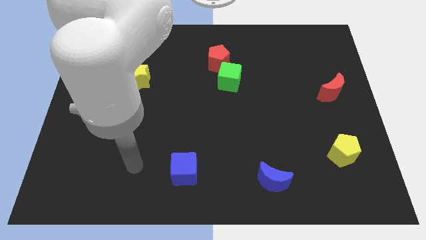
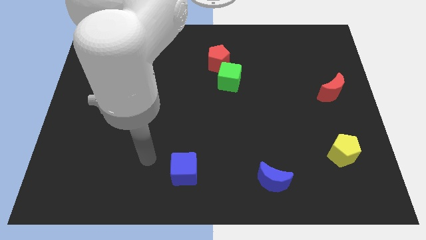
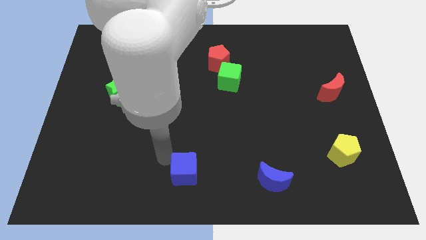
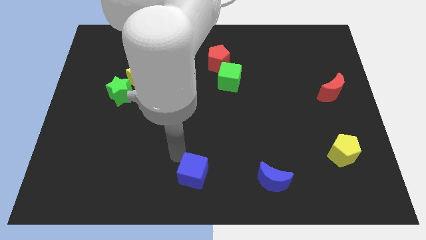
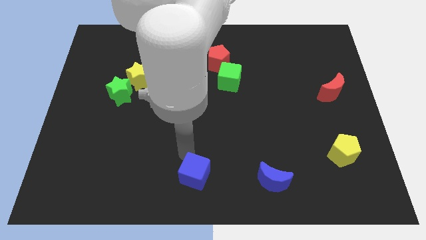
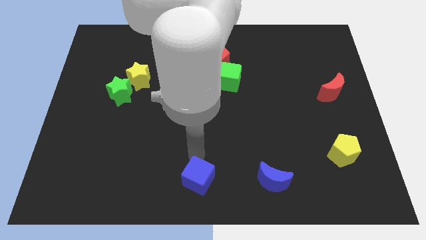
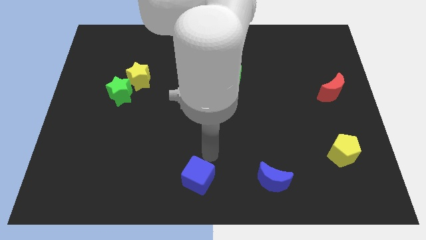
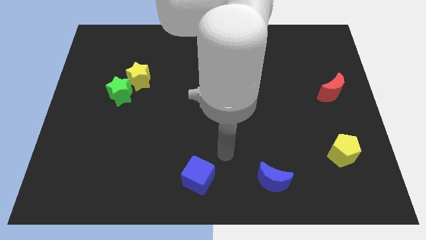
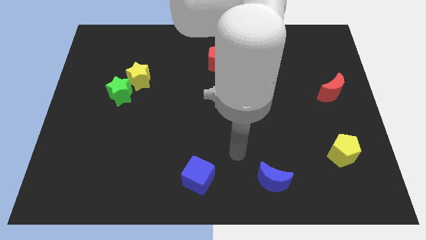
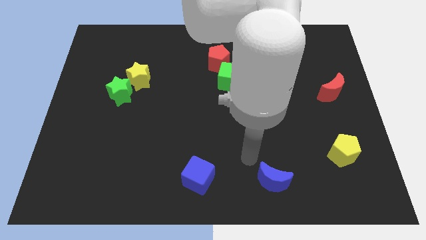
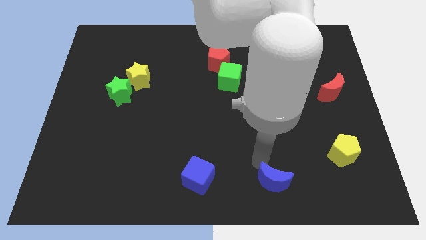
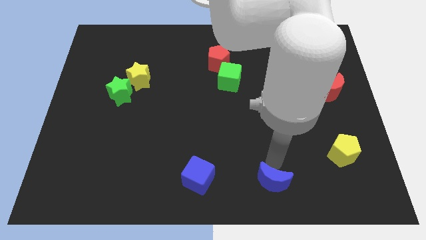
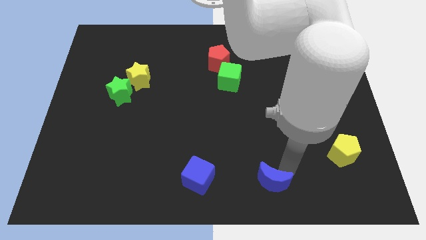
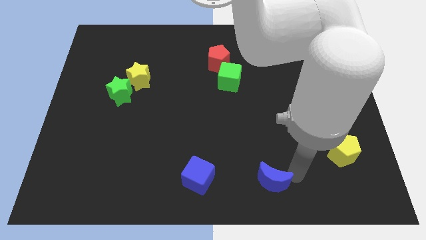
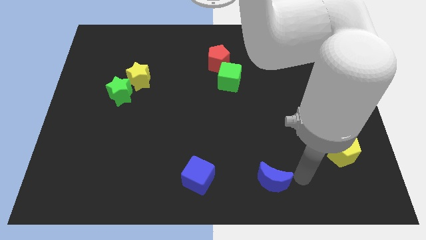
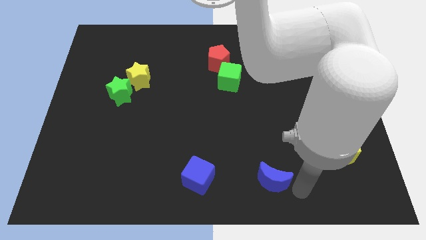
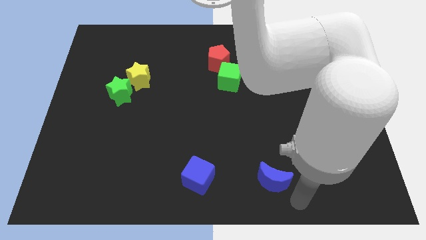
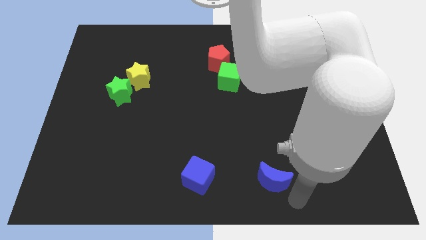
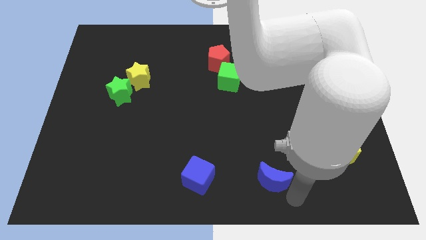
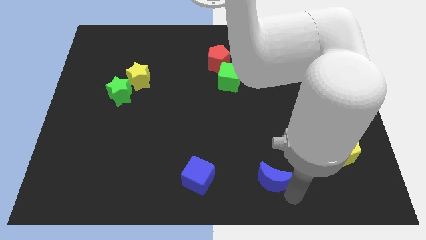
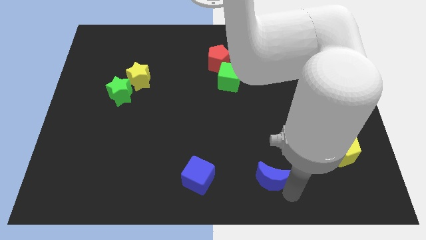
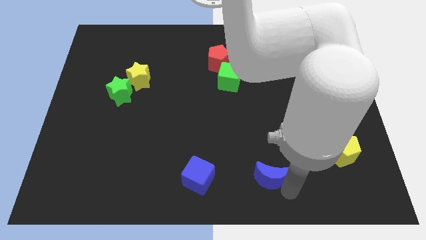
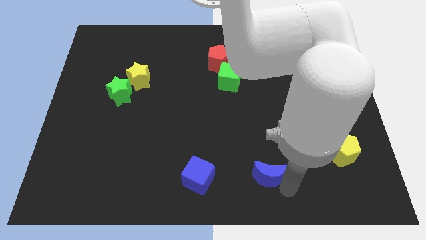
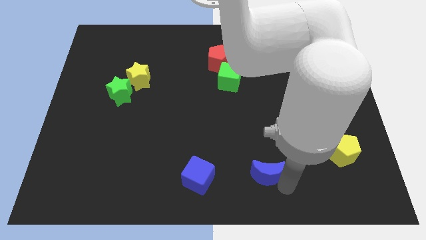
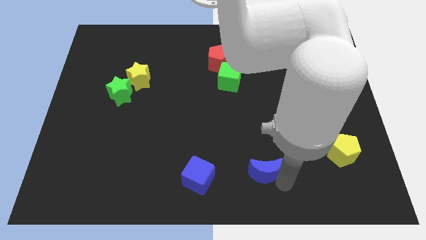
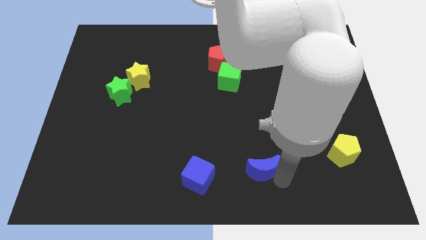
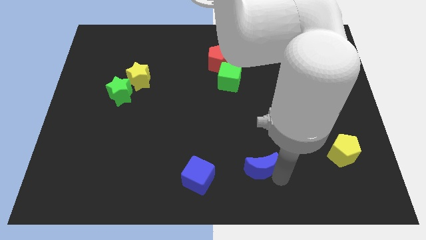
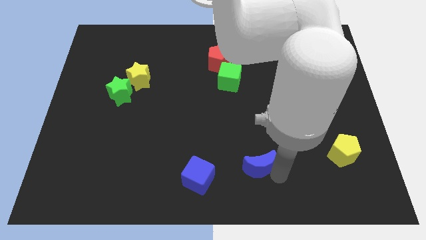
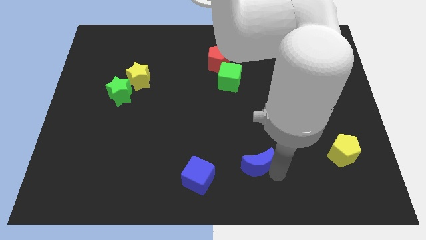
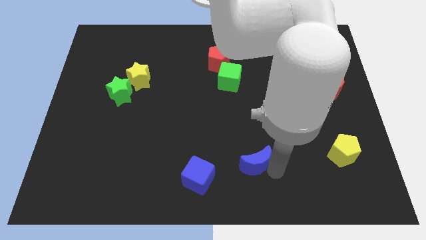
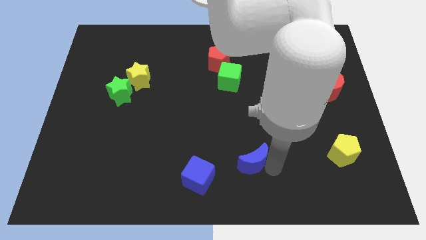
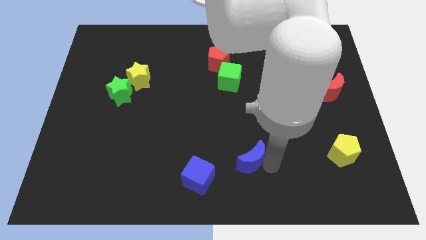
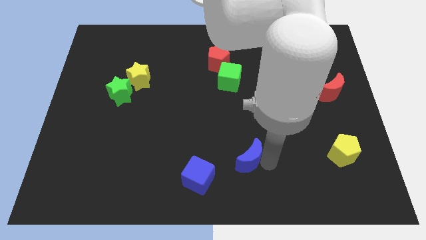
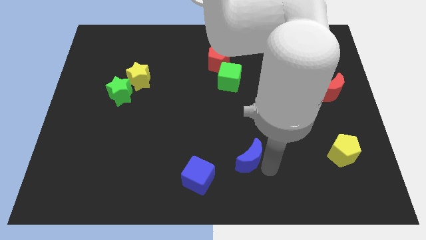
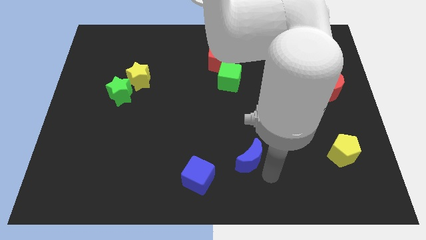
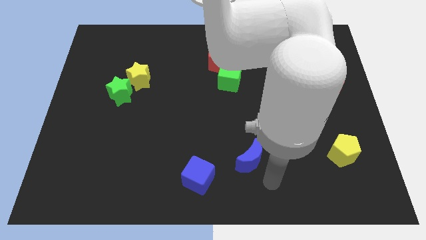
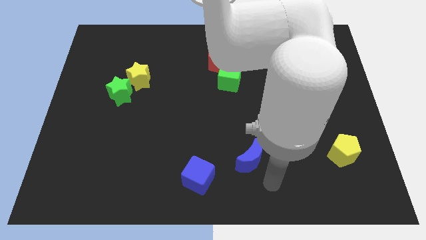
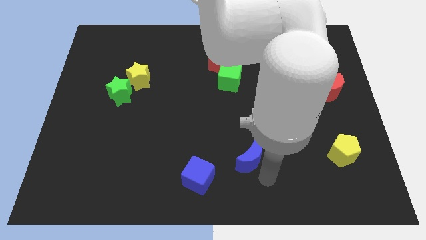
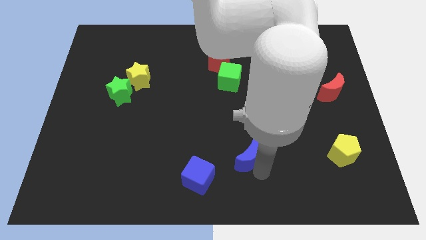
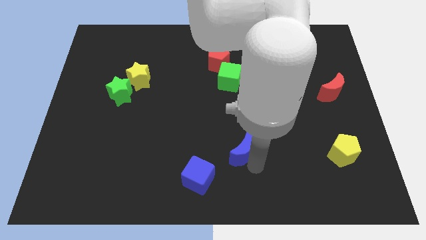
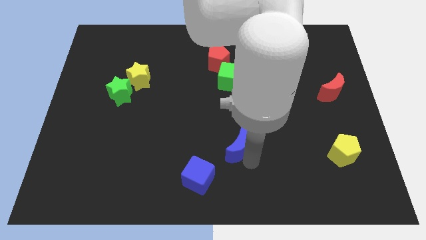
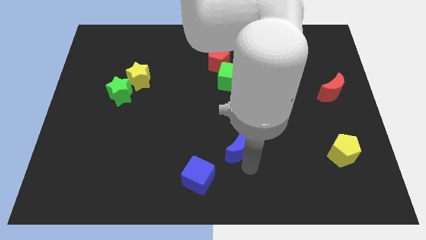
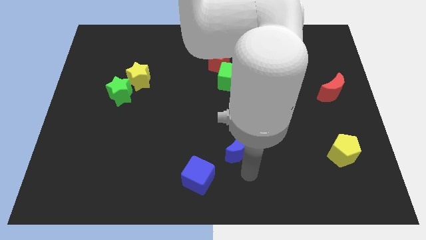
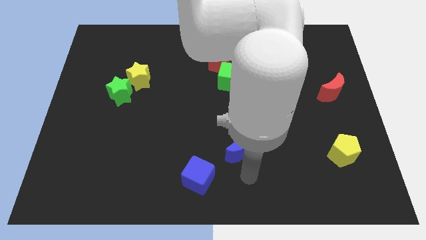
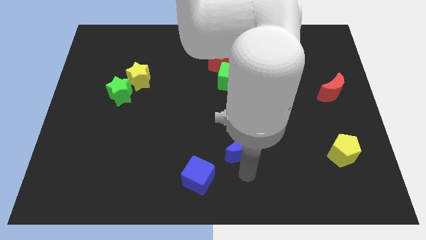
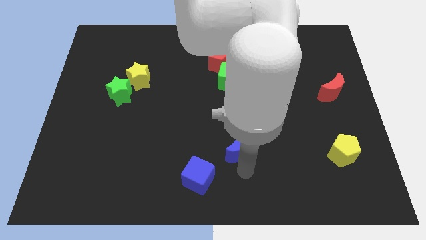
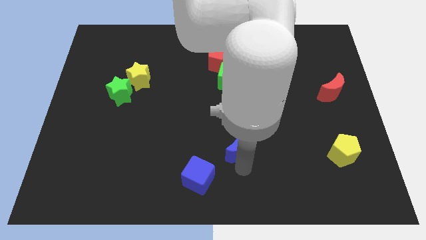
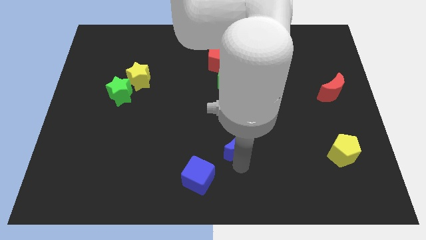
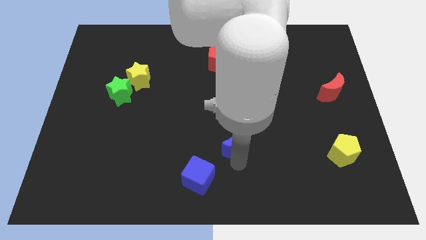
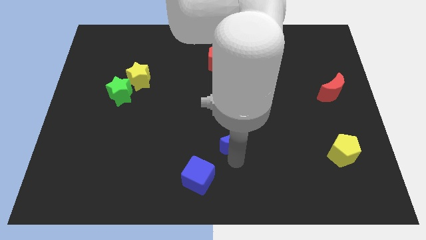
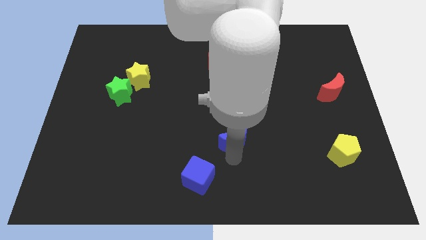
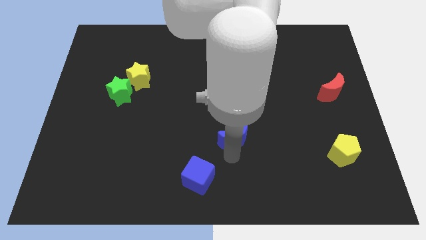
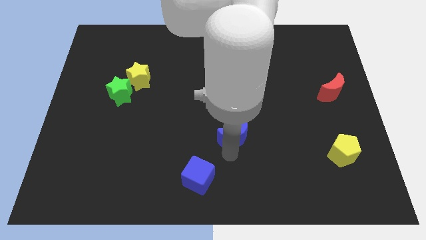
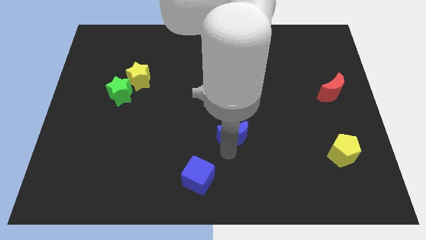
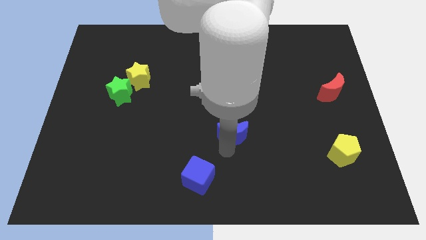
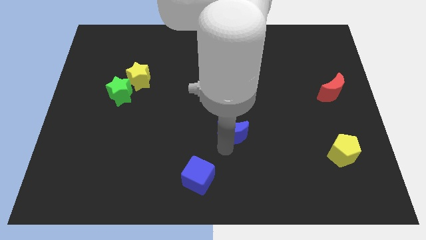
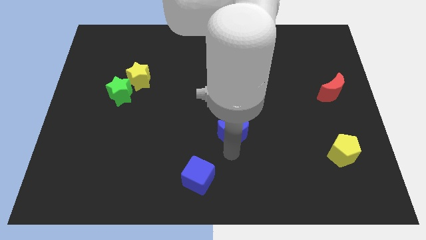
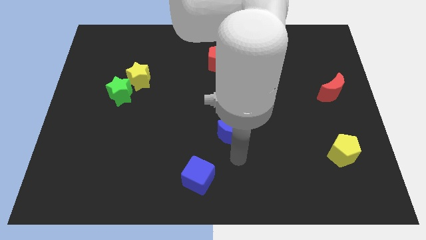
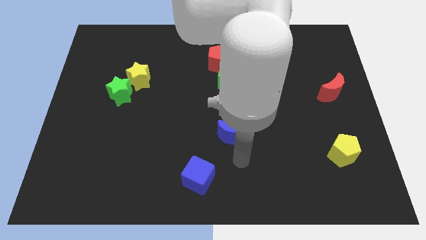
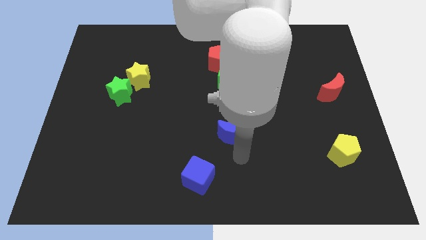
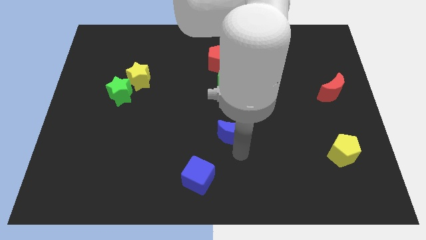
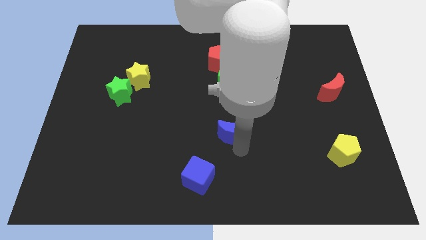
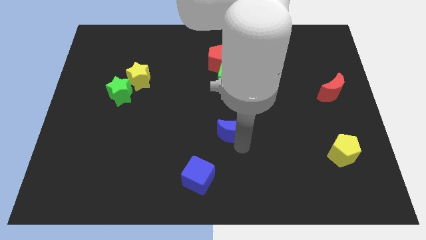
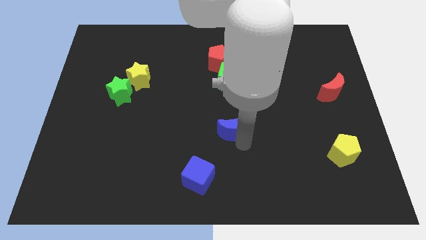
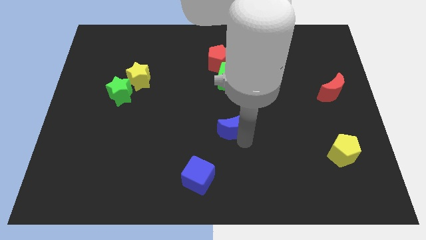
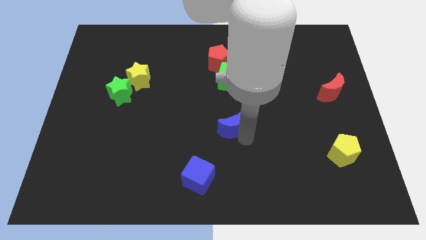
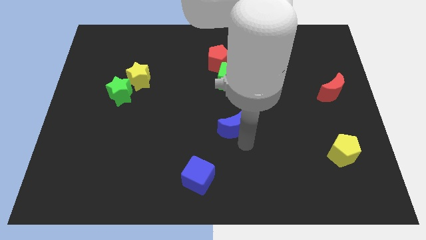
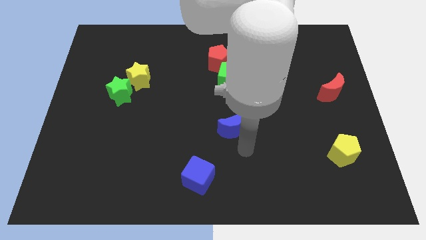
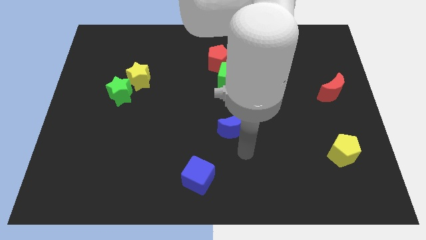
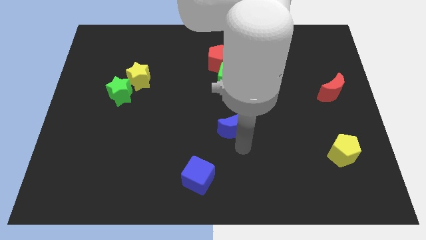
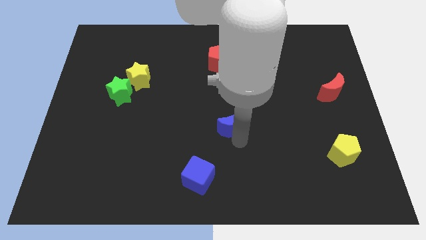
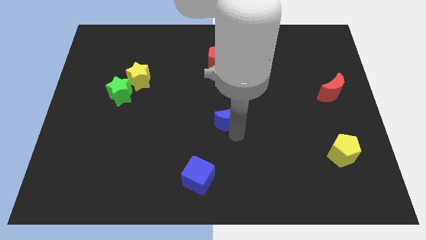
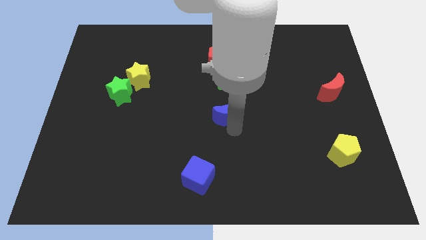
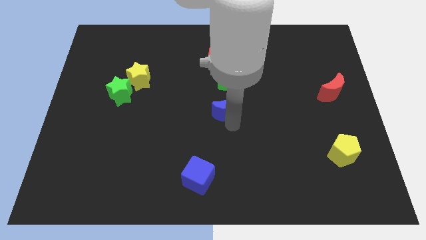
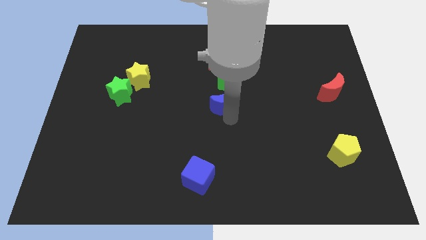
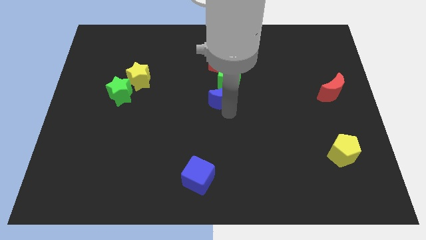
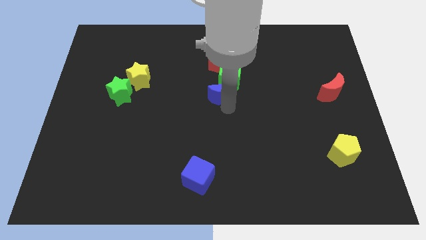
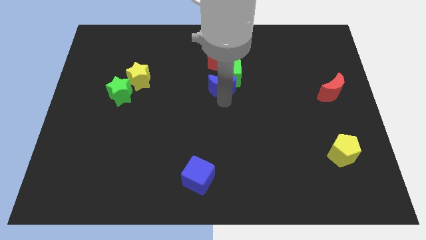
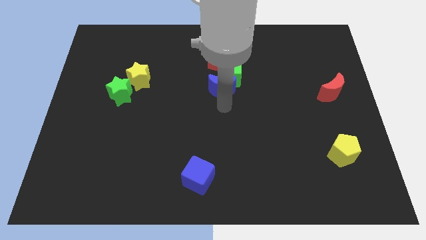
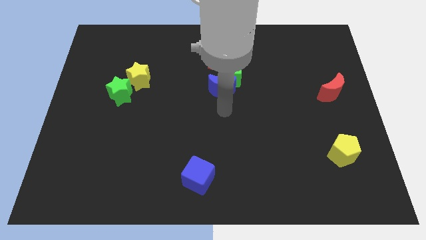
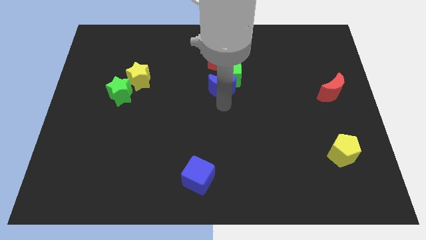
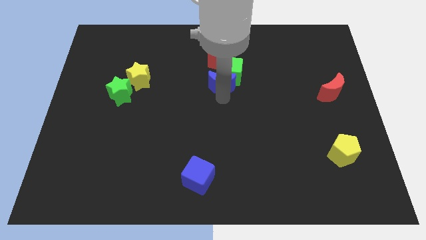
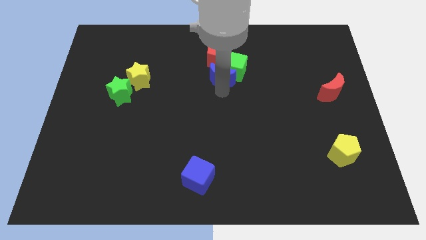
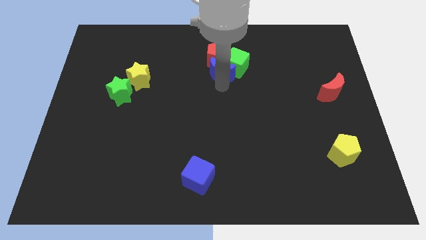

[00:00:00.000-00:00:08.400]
put the blue moon close to the red pentagon
